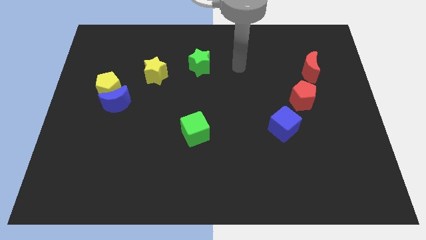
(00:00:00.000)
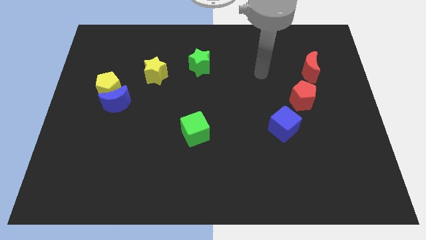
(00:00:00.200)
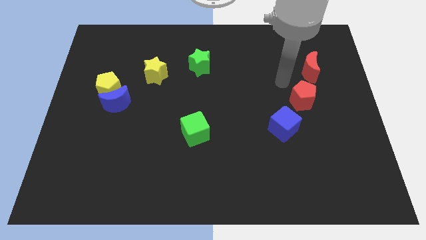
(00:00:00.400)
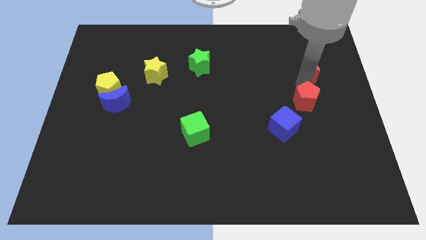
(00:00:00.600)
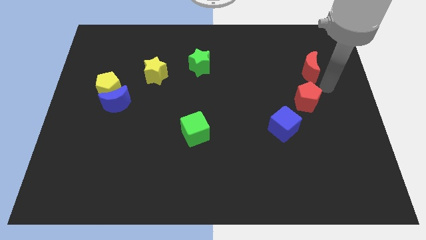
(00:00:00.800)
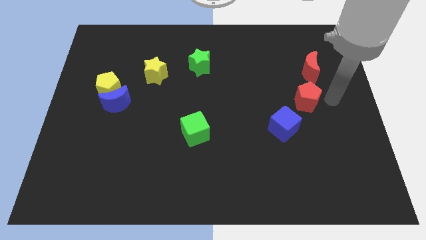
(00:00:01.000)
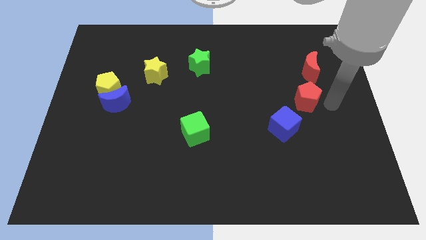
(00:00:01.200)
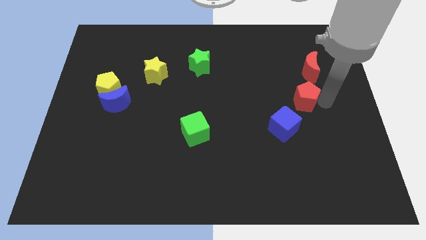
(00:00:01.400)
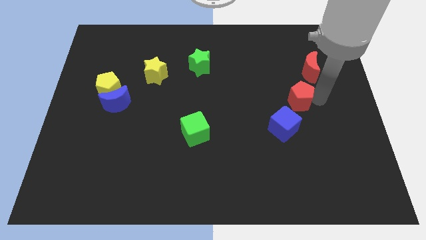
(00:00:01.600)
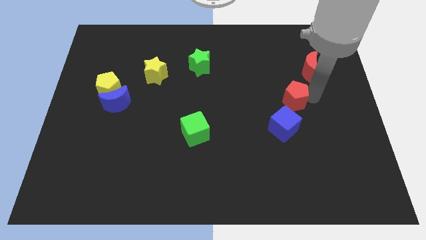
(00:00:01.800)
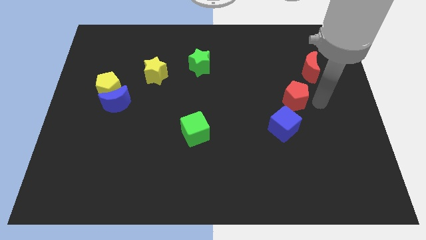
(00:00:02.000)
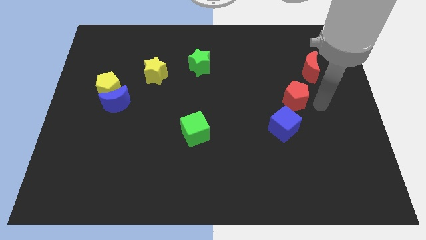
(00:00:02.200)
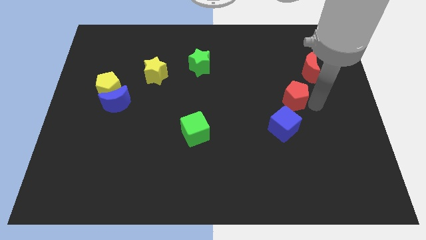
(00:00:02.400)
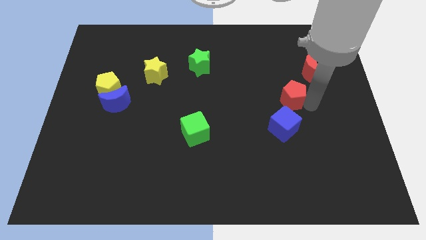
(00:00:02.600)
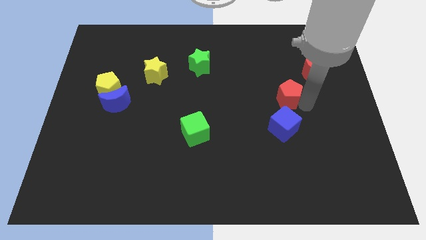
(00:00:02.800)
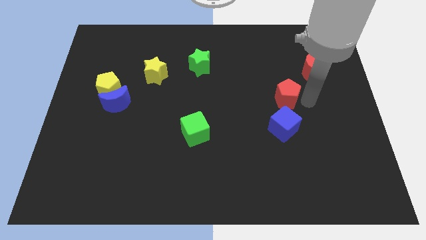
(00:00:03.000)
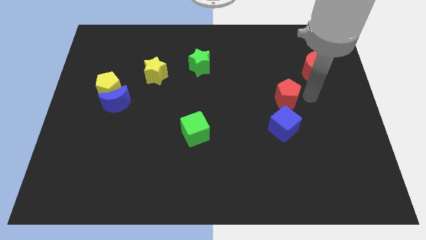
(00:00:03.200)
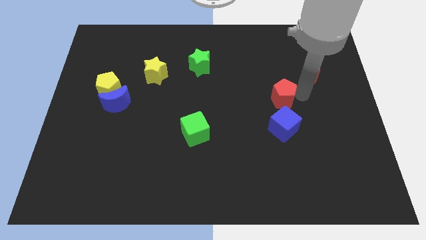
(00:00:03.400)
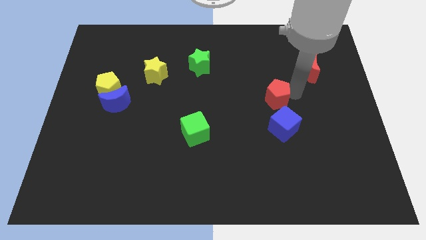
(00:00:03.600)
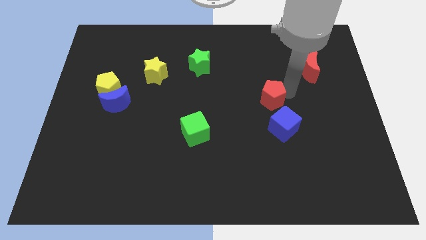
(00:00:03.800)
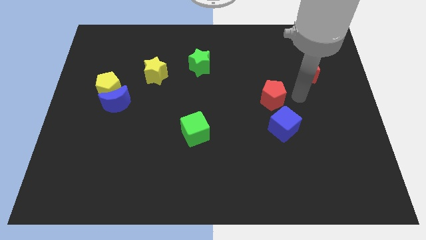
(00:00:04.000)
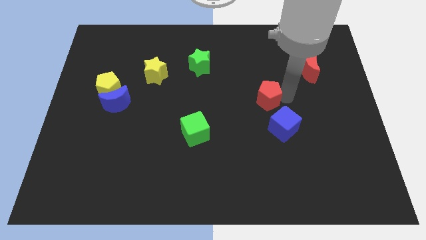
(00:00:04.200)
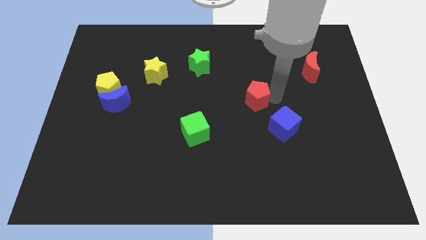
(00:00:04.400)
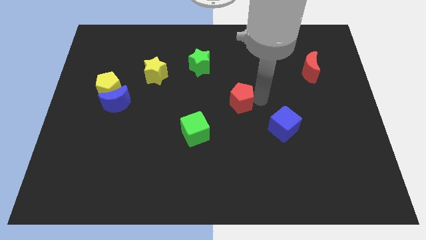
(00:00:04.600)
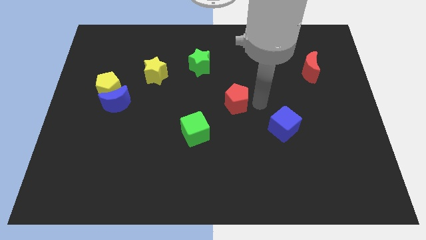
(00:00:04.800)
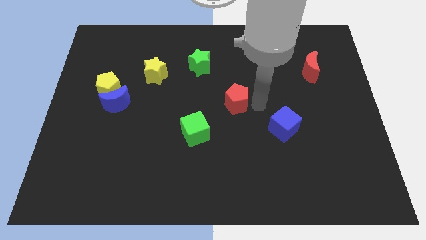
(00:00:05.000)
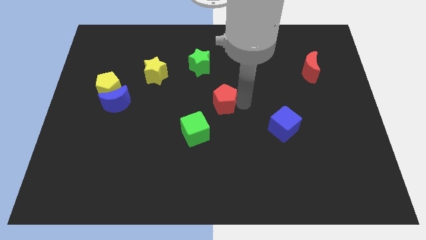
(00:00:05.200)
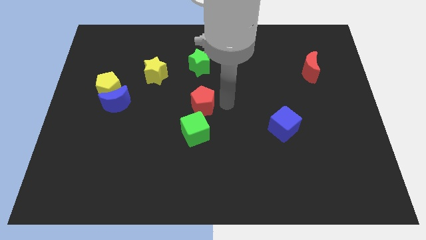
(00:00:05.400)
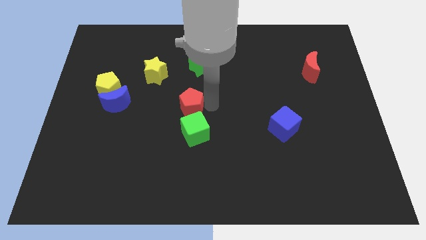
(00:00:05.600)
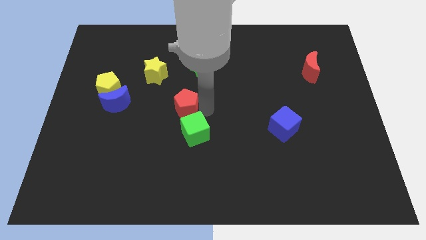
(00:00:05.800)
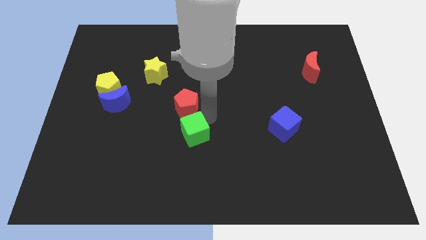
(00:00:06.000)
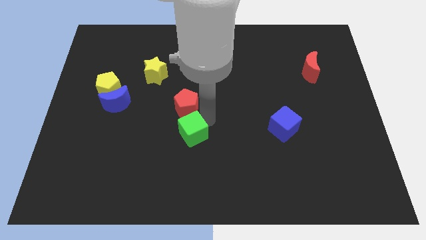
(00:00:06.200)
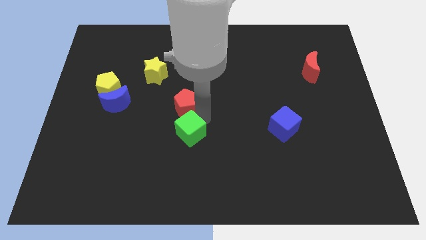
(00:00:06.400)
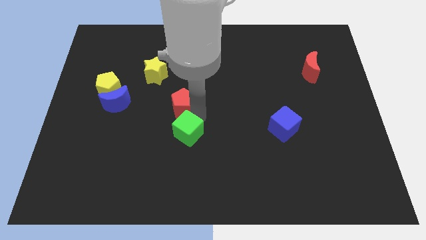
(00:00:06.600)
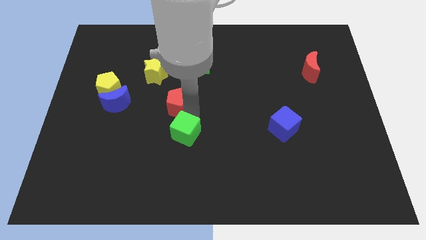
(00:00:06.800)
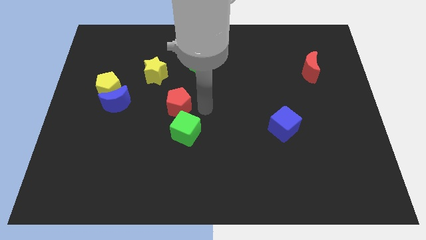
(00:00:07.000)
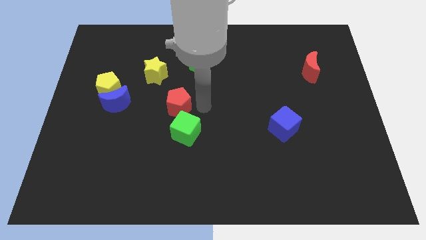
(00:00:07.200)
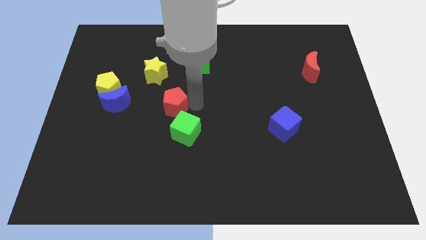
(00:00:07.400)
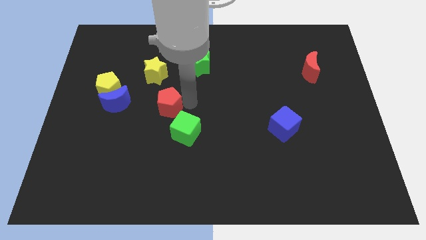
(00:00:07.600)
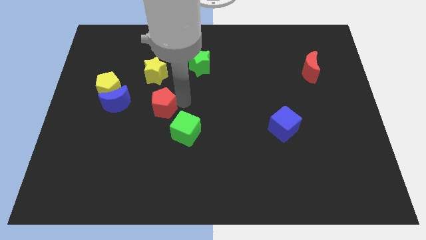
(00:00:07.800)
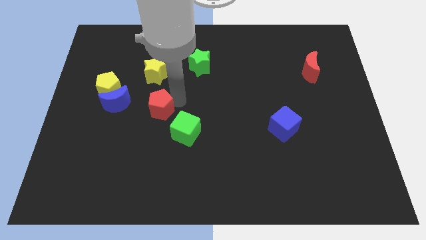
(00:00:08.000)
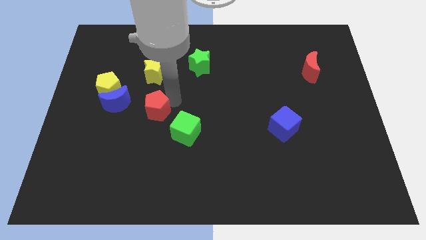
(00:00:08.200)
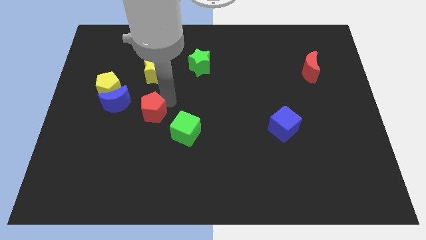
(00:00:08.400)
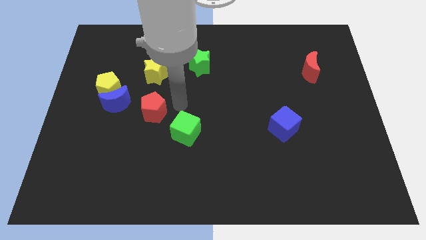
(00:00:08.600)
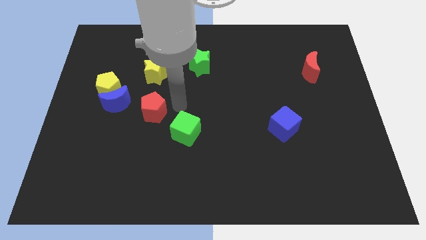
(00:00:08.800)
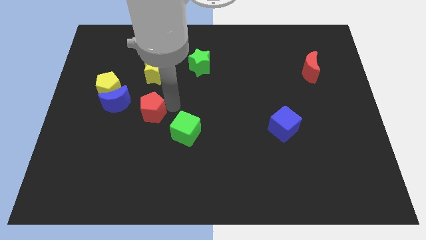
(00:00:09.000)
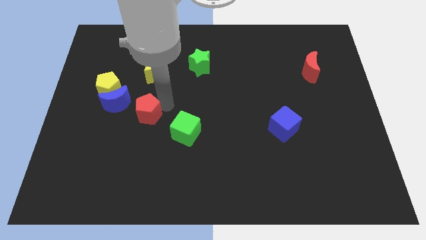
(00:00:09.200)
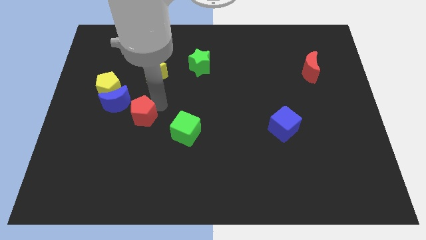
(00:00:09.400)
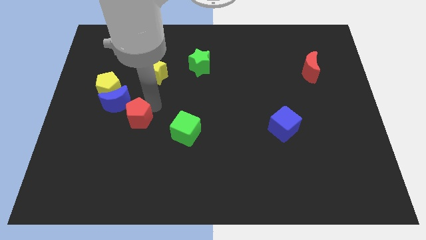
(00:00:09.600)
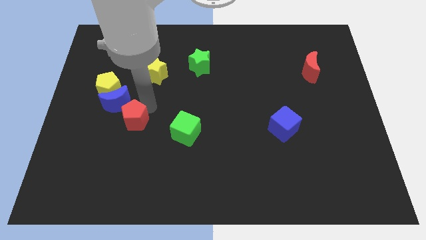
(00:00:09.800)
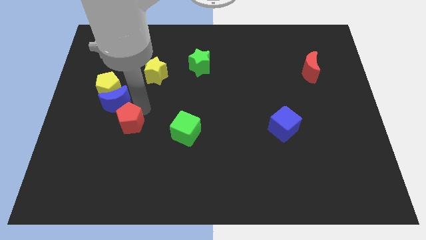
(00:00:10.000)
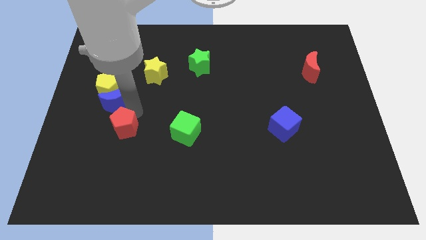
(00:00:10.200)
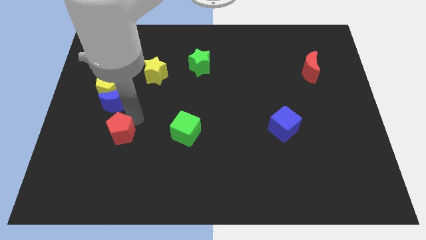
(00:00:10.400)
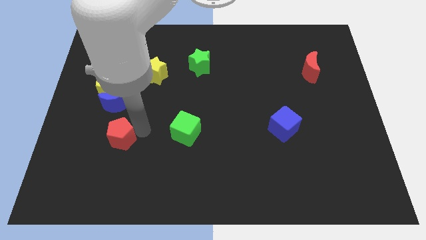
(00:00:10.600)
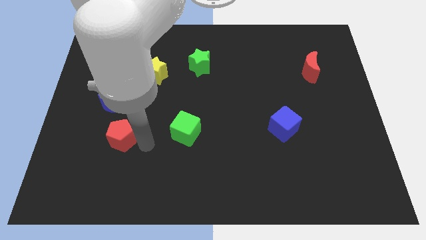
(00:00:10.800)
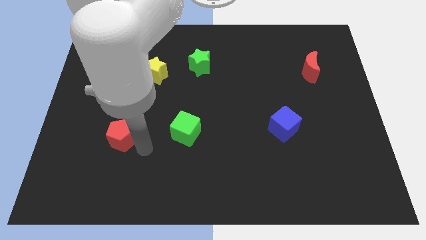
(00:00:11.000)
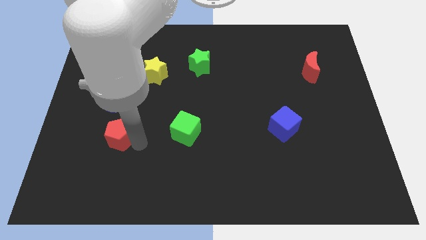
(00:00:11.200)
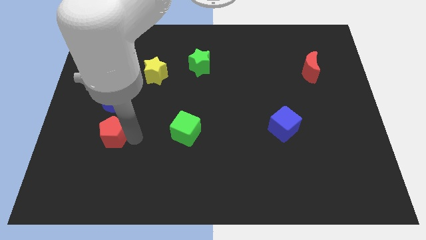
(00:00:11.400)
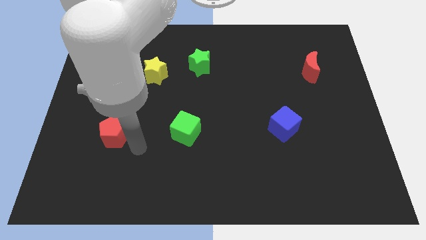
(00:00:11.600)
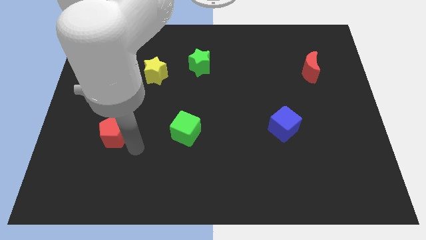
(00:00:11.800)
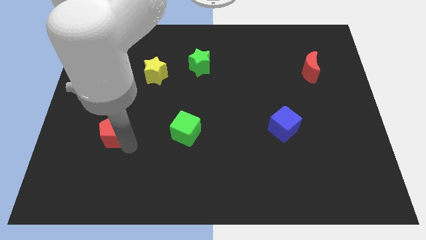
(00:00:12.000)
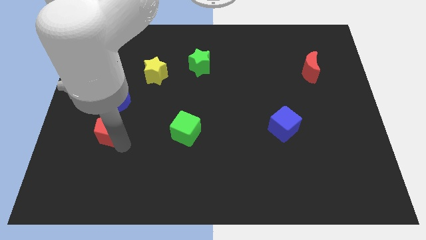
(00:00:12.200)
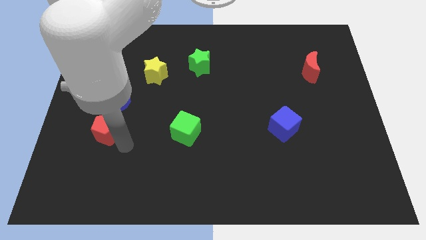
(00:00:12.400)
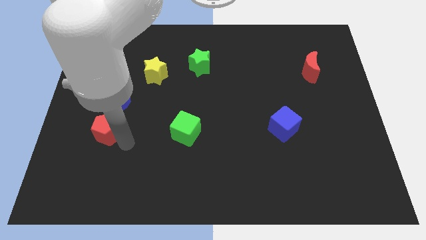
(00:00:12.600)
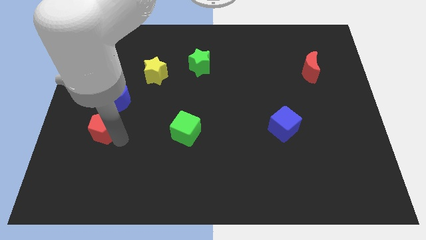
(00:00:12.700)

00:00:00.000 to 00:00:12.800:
slide the red pentagon diagonally down and to the left of the blue moon
